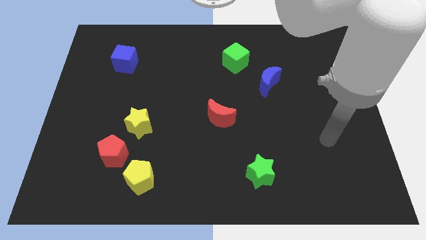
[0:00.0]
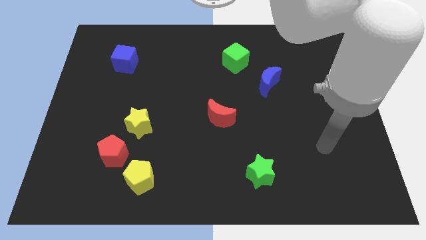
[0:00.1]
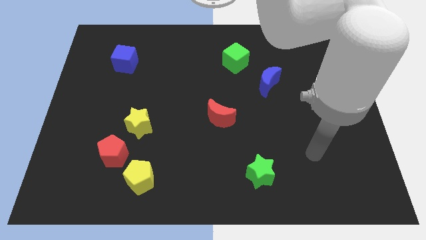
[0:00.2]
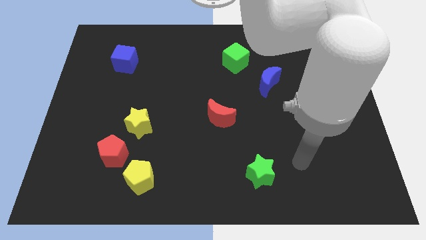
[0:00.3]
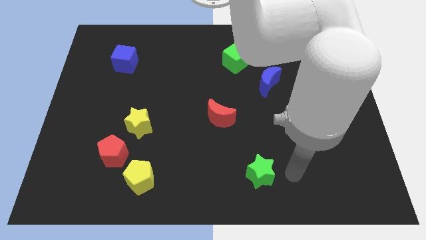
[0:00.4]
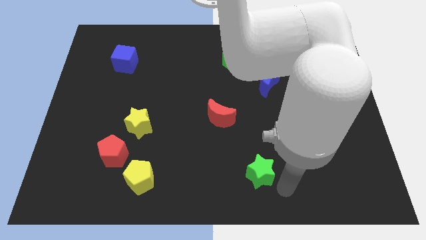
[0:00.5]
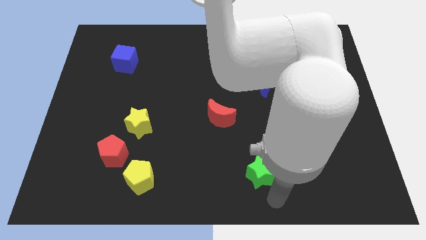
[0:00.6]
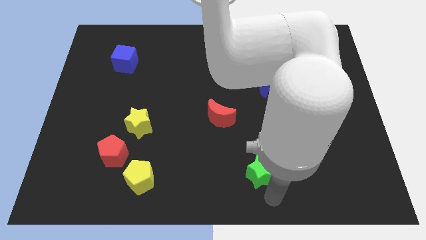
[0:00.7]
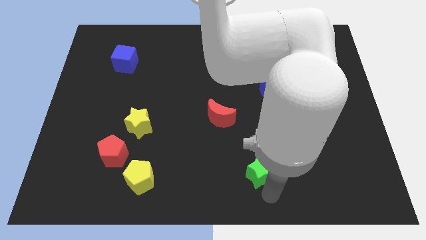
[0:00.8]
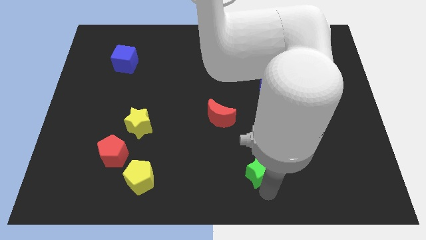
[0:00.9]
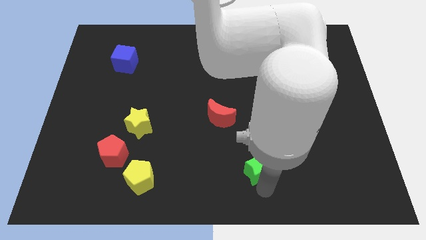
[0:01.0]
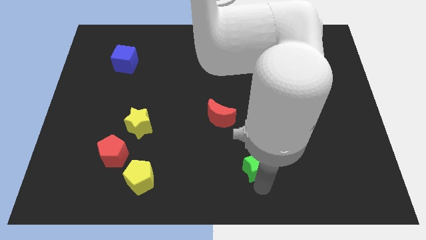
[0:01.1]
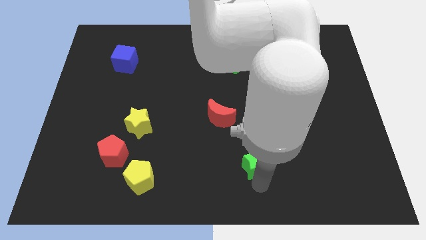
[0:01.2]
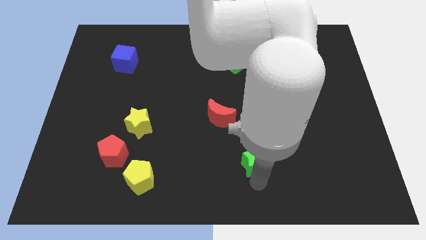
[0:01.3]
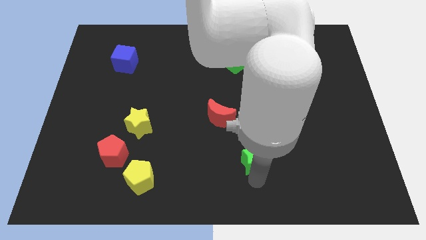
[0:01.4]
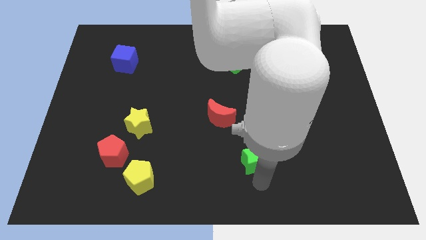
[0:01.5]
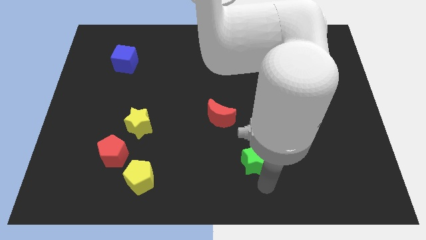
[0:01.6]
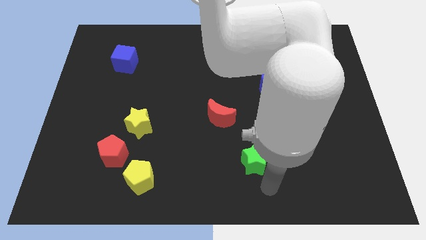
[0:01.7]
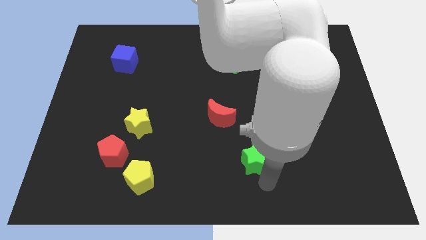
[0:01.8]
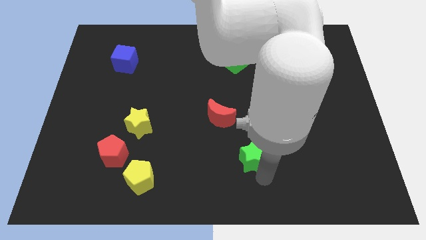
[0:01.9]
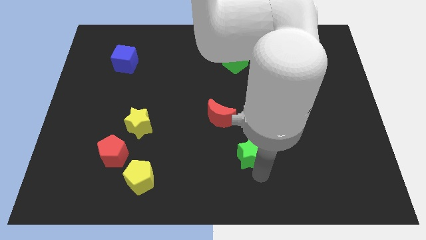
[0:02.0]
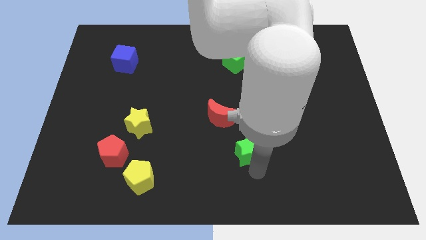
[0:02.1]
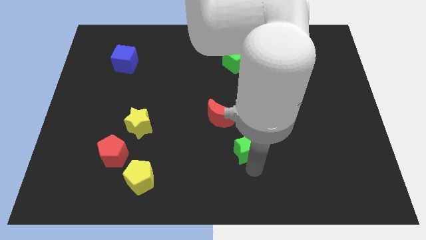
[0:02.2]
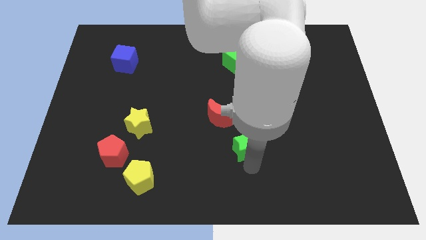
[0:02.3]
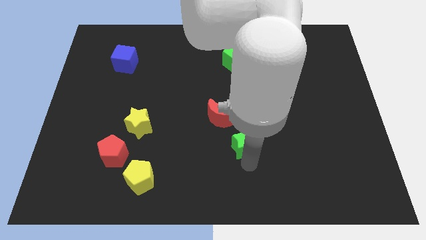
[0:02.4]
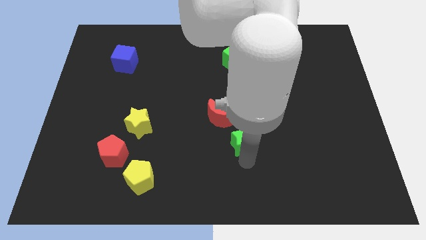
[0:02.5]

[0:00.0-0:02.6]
slightly move the green star upwards

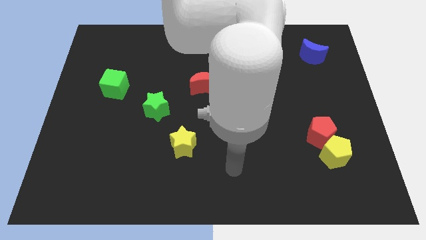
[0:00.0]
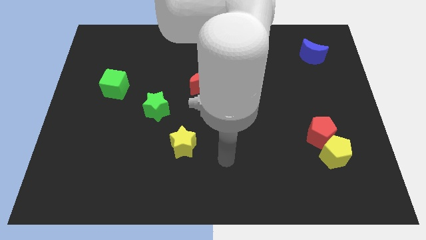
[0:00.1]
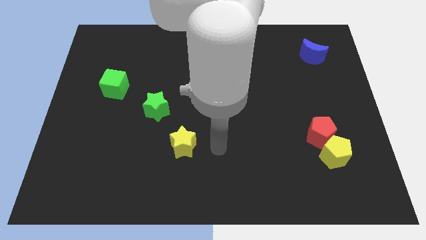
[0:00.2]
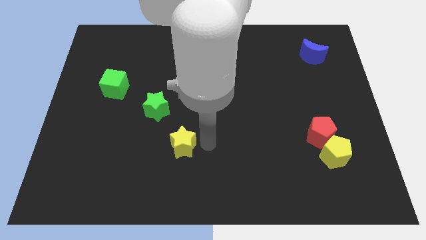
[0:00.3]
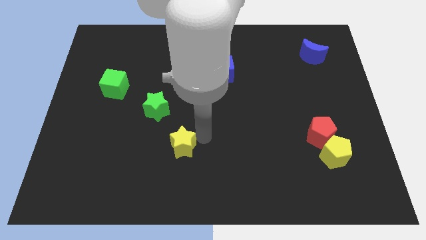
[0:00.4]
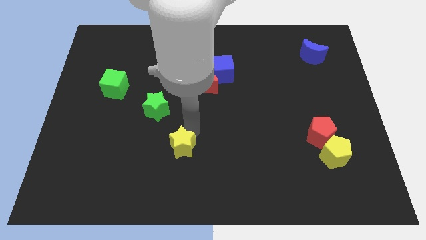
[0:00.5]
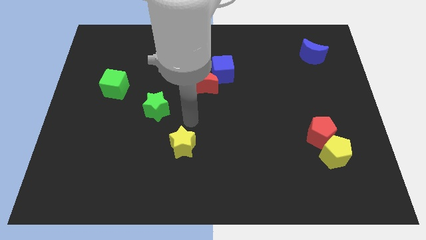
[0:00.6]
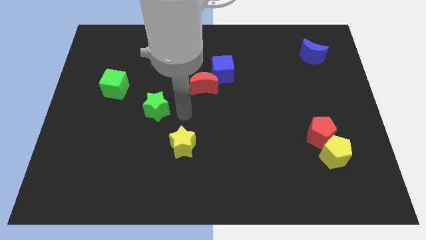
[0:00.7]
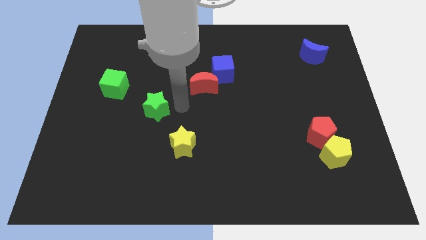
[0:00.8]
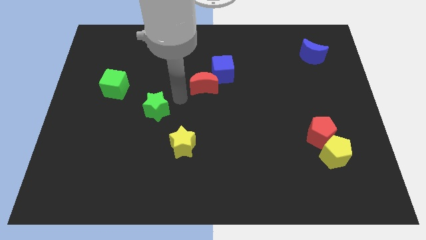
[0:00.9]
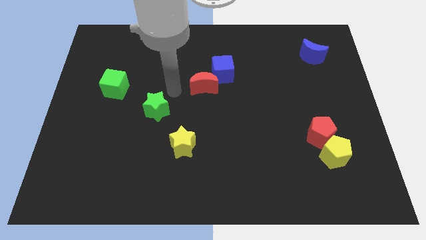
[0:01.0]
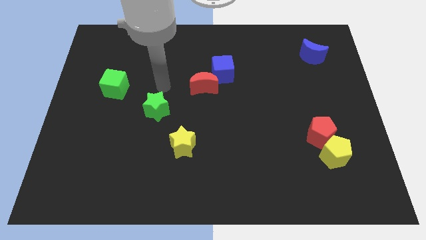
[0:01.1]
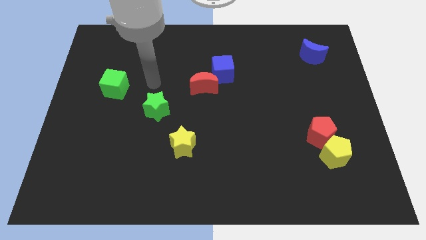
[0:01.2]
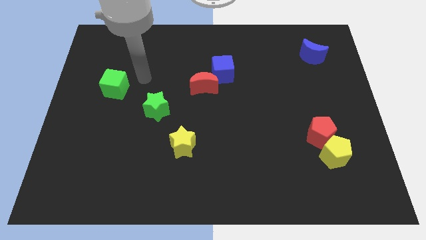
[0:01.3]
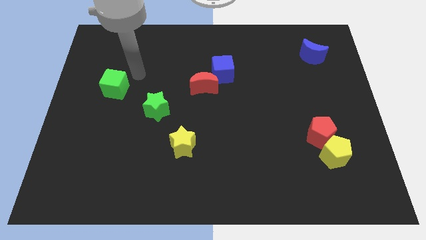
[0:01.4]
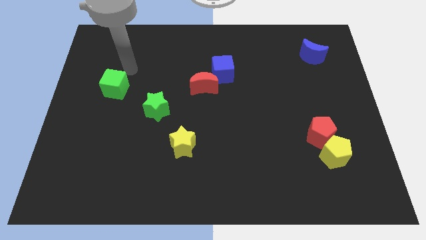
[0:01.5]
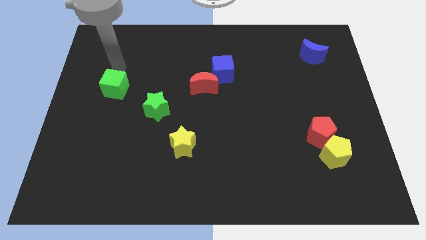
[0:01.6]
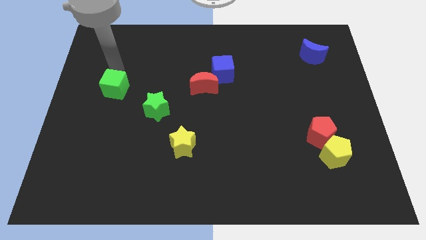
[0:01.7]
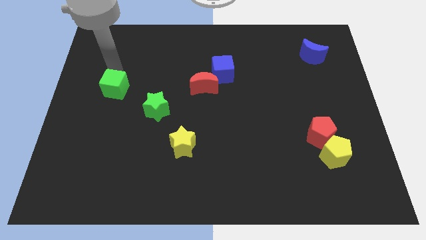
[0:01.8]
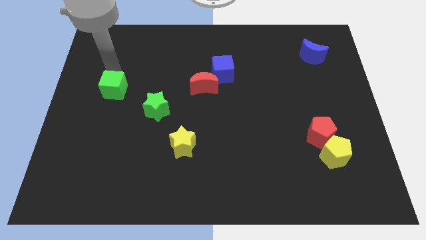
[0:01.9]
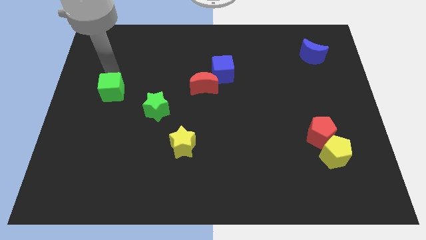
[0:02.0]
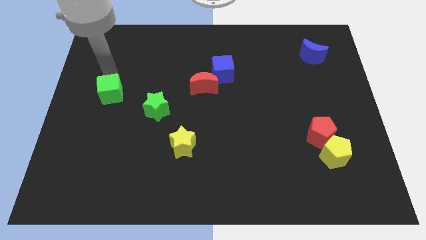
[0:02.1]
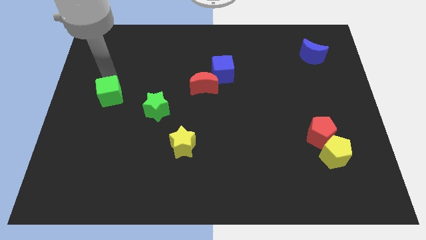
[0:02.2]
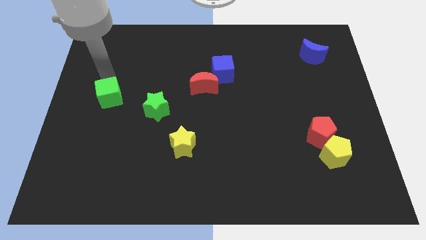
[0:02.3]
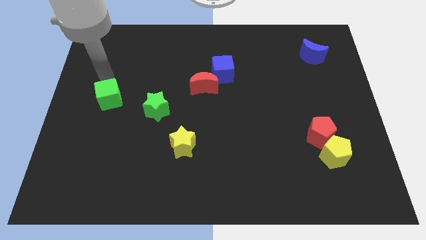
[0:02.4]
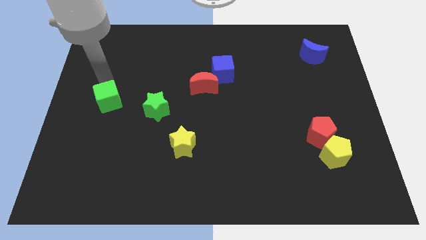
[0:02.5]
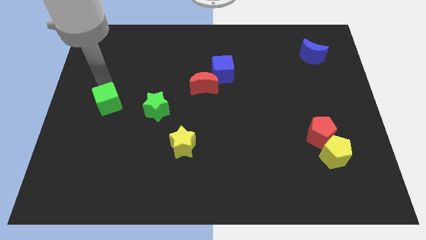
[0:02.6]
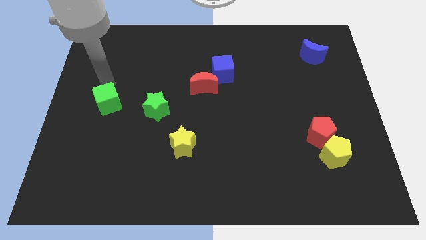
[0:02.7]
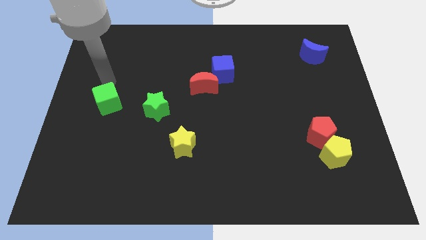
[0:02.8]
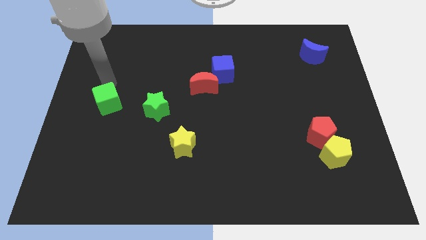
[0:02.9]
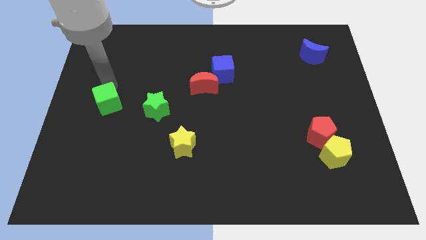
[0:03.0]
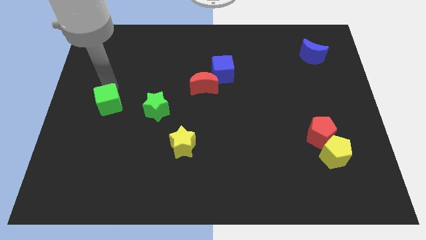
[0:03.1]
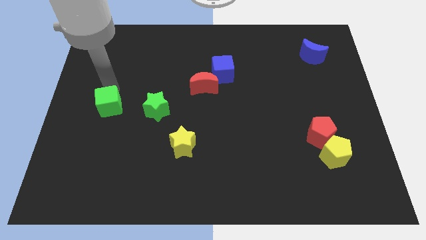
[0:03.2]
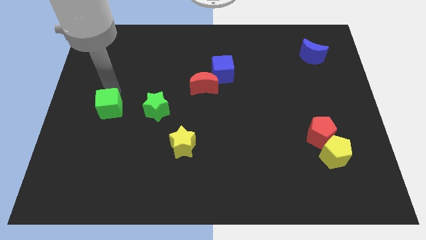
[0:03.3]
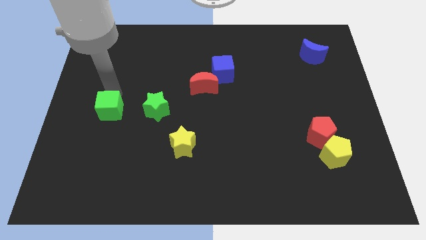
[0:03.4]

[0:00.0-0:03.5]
slightly slide the green cube downwards

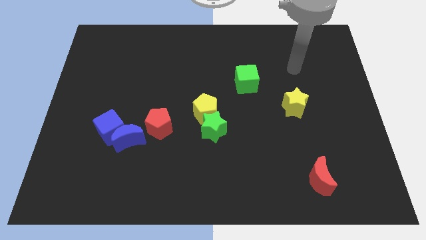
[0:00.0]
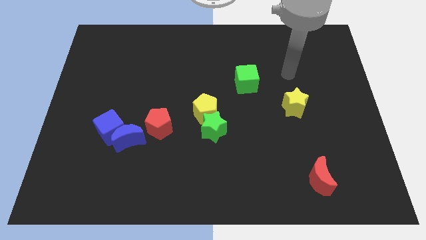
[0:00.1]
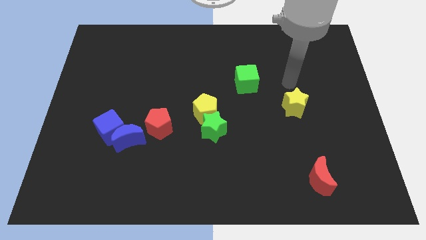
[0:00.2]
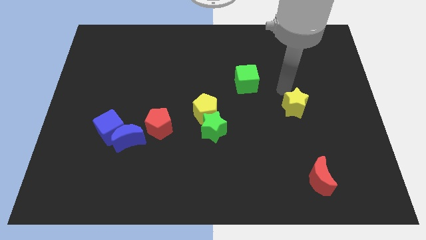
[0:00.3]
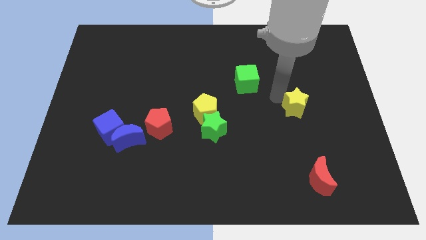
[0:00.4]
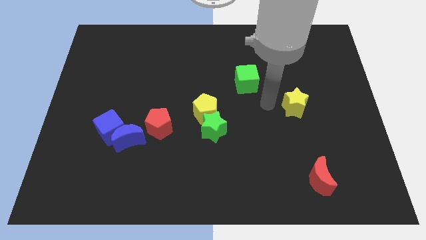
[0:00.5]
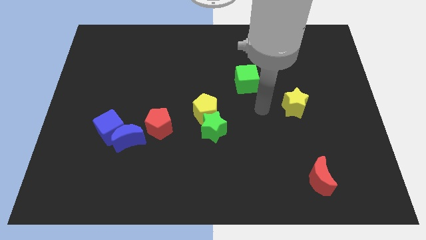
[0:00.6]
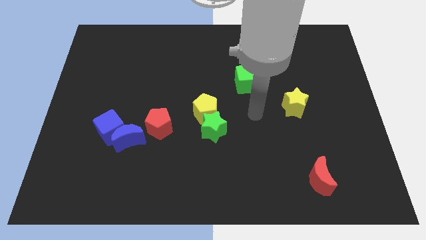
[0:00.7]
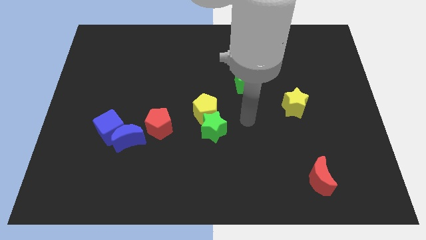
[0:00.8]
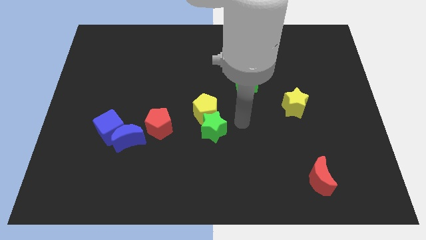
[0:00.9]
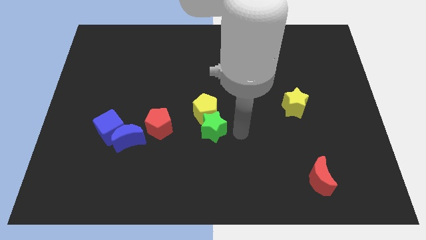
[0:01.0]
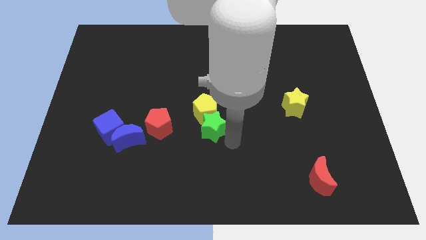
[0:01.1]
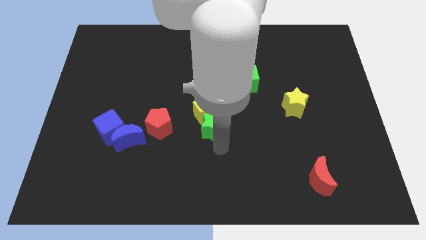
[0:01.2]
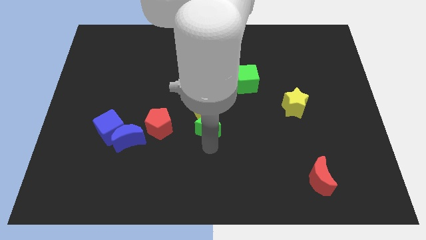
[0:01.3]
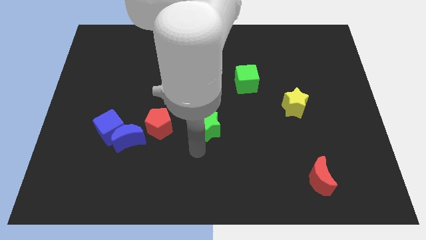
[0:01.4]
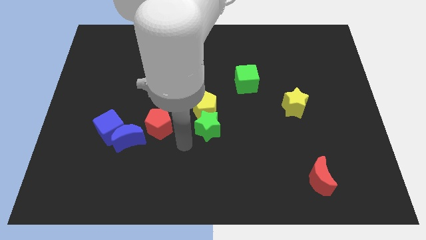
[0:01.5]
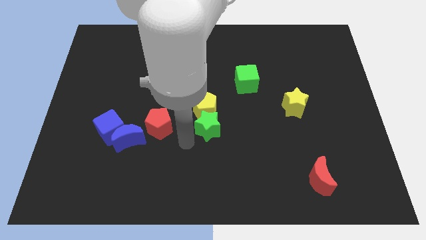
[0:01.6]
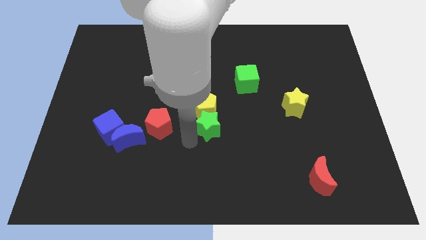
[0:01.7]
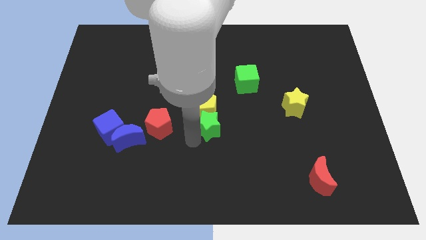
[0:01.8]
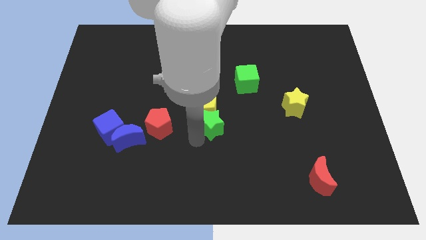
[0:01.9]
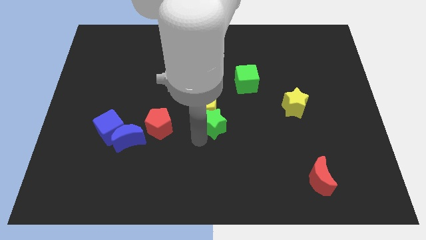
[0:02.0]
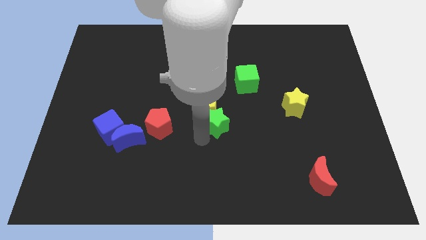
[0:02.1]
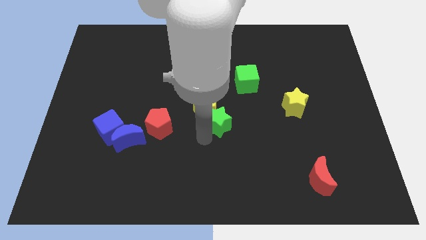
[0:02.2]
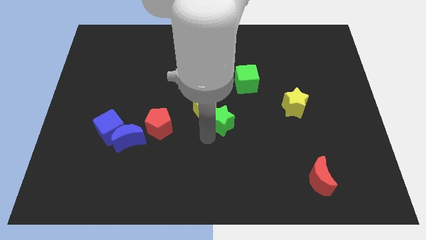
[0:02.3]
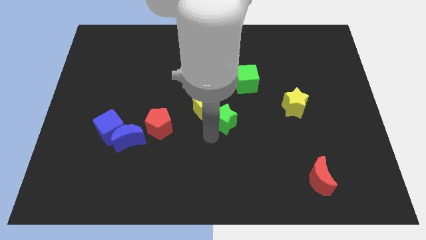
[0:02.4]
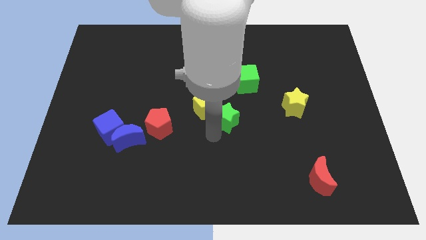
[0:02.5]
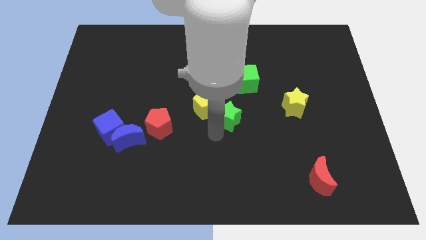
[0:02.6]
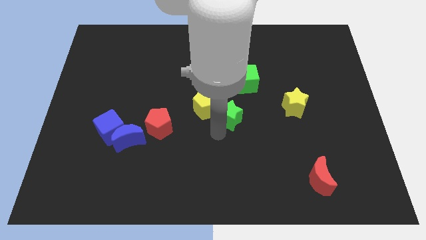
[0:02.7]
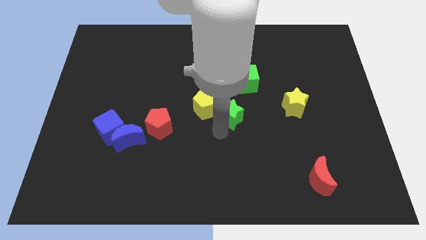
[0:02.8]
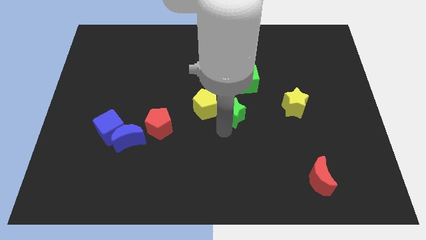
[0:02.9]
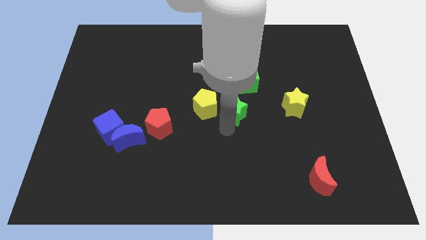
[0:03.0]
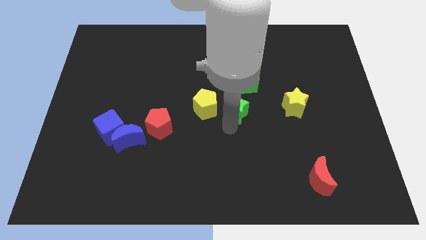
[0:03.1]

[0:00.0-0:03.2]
move the green star upwards and then right slightly
